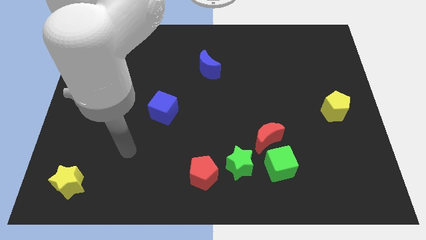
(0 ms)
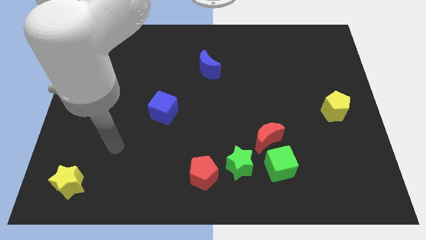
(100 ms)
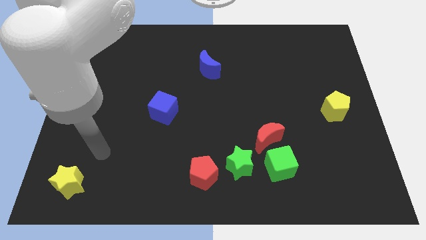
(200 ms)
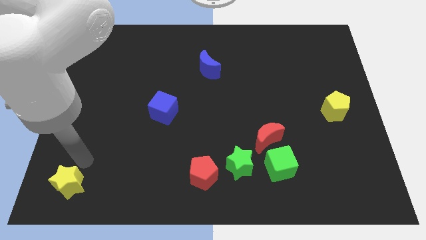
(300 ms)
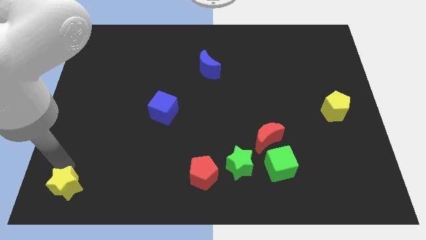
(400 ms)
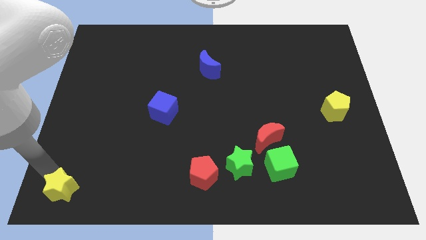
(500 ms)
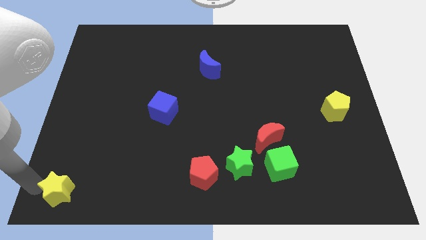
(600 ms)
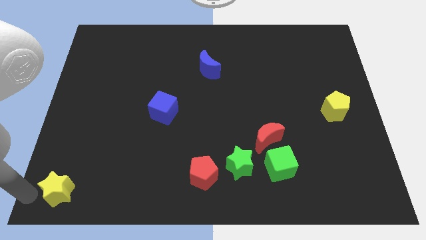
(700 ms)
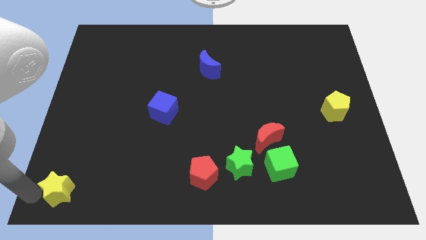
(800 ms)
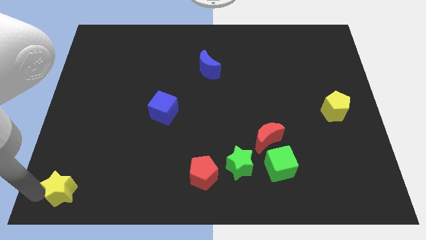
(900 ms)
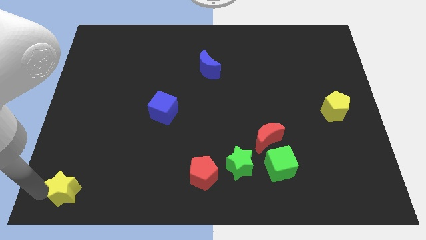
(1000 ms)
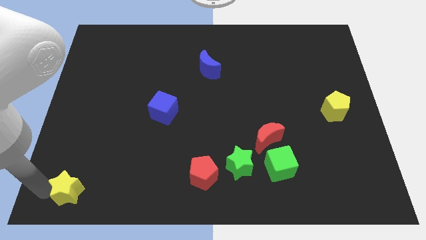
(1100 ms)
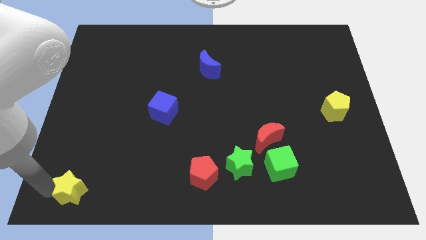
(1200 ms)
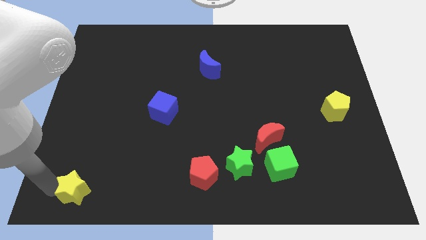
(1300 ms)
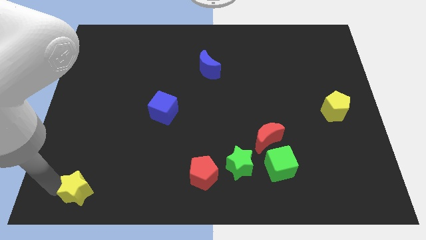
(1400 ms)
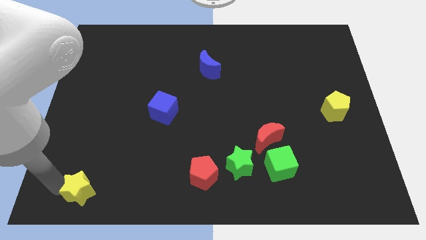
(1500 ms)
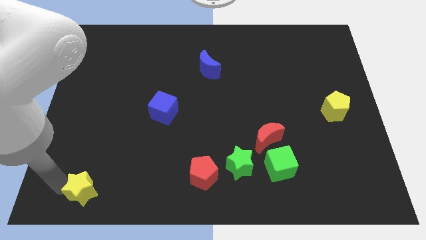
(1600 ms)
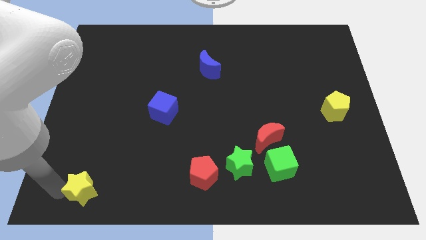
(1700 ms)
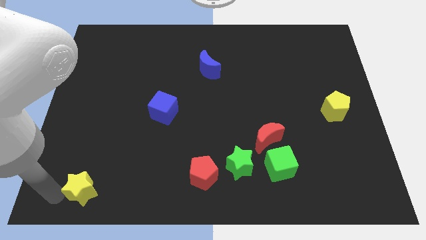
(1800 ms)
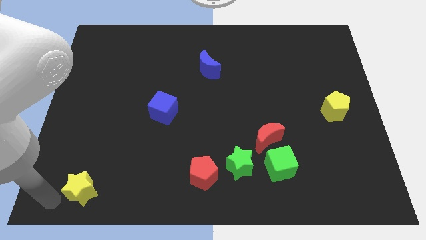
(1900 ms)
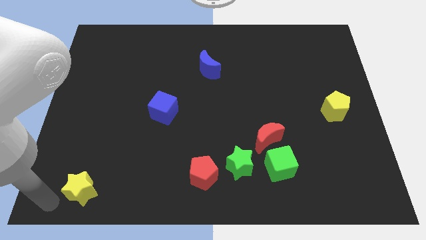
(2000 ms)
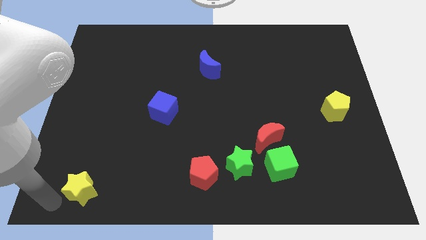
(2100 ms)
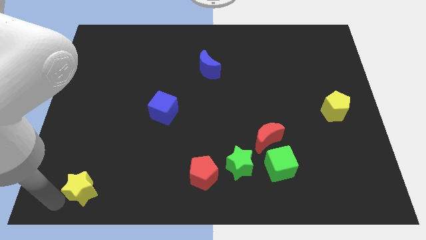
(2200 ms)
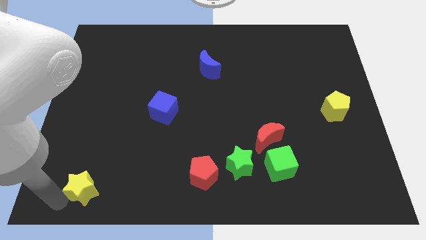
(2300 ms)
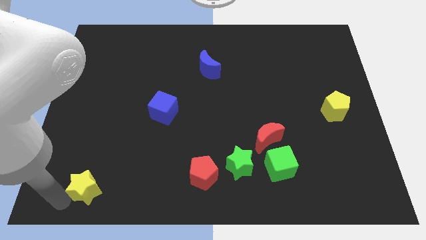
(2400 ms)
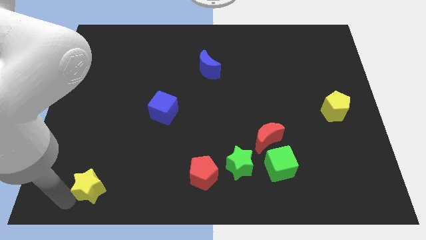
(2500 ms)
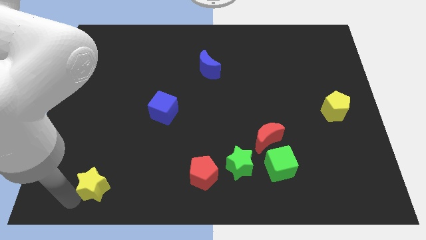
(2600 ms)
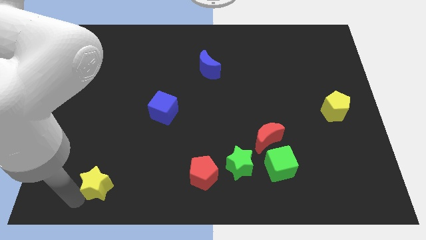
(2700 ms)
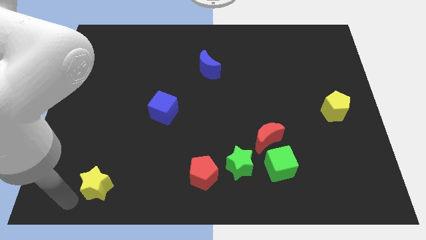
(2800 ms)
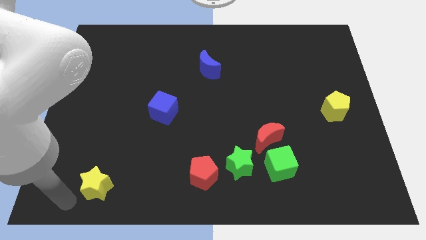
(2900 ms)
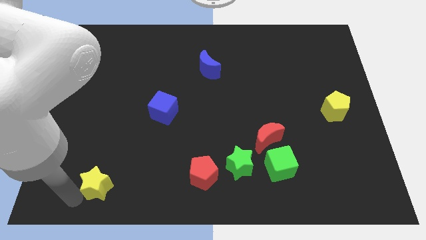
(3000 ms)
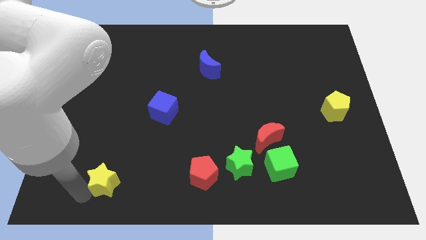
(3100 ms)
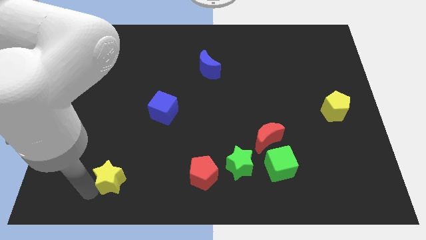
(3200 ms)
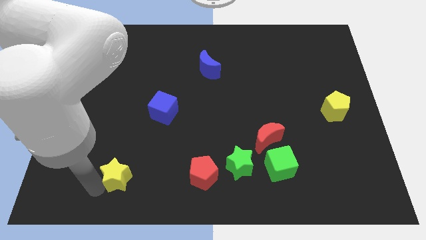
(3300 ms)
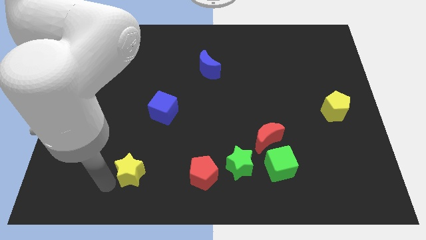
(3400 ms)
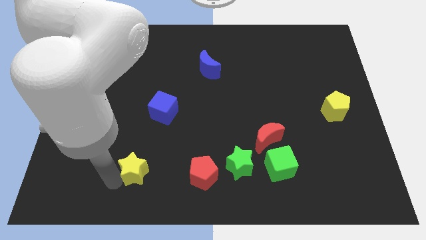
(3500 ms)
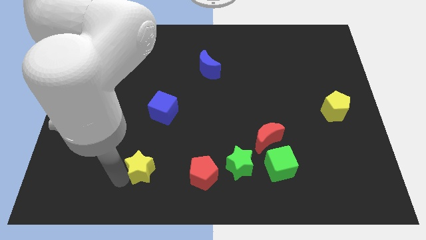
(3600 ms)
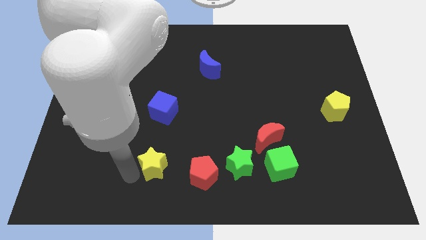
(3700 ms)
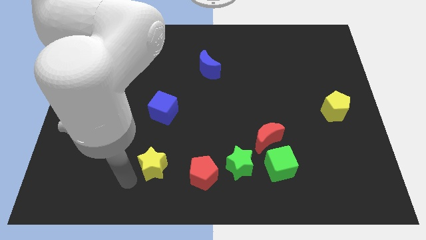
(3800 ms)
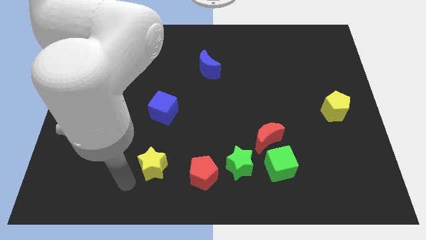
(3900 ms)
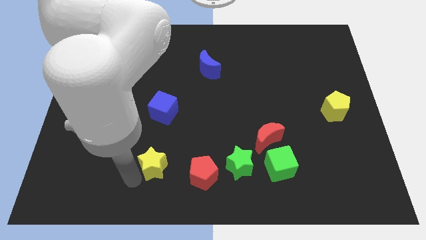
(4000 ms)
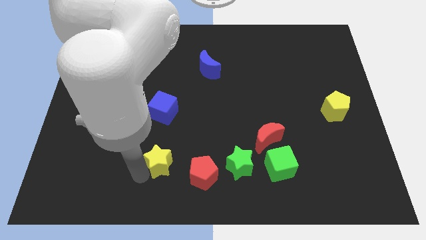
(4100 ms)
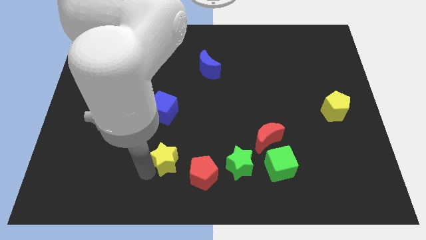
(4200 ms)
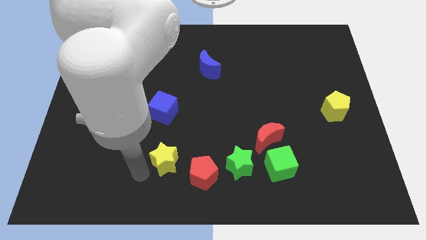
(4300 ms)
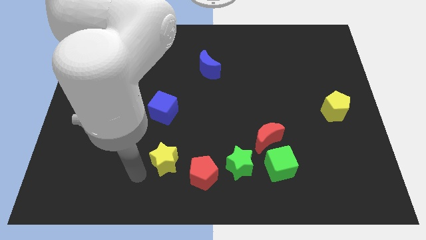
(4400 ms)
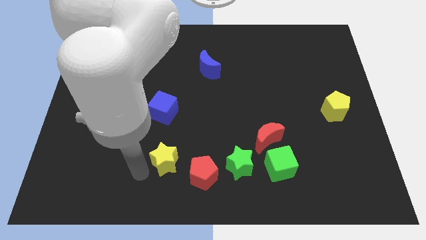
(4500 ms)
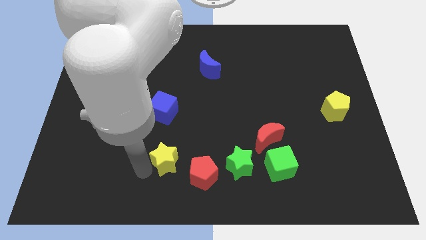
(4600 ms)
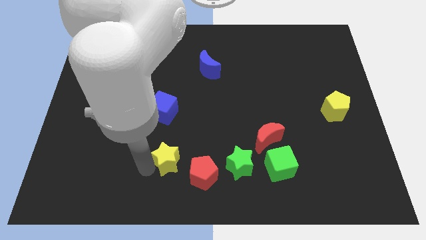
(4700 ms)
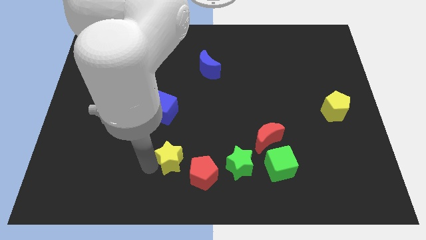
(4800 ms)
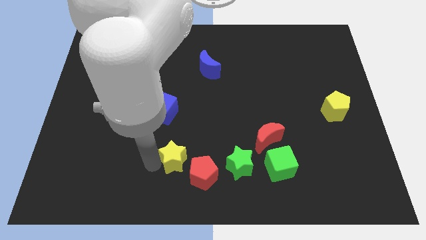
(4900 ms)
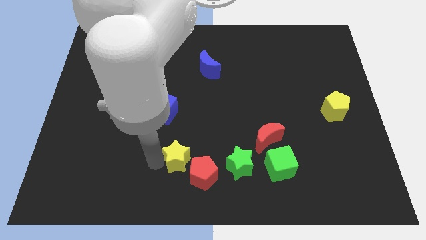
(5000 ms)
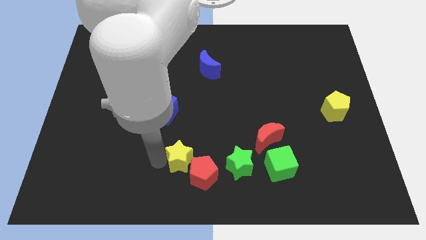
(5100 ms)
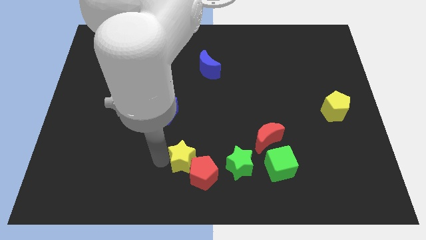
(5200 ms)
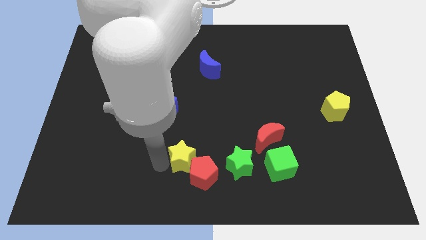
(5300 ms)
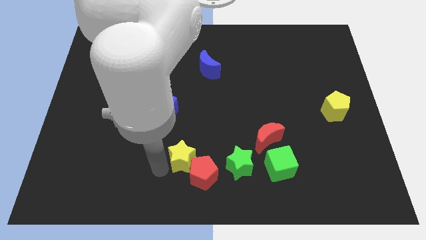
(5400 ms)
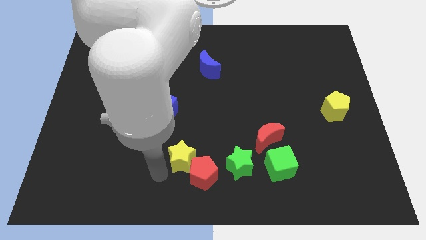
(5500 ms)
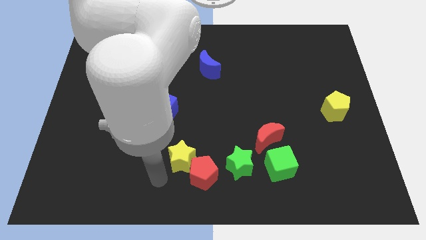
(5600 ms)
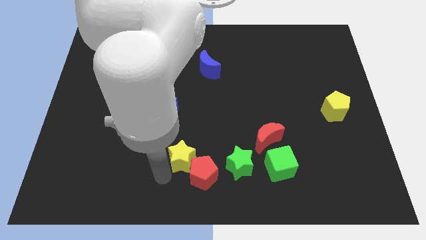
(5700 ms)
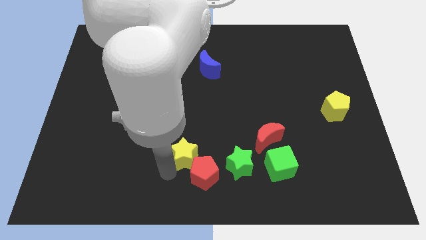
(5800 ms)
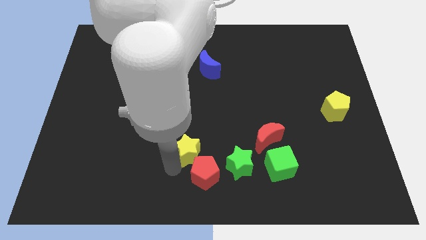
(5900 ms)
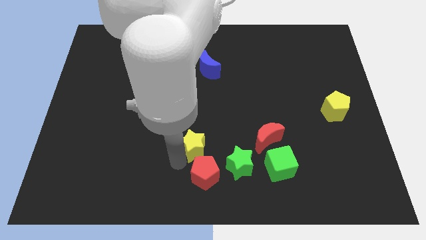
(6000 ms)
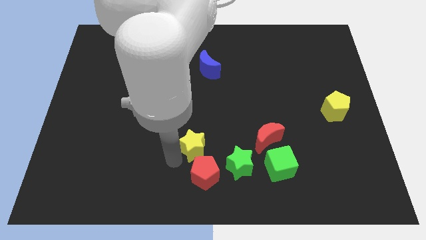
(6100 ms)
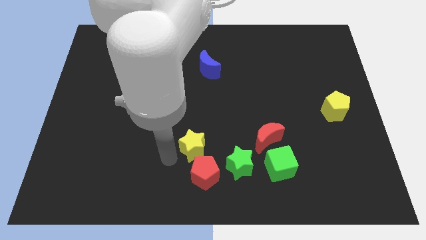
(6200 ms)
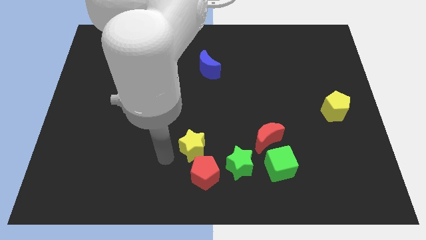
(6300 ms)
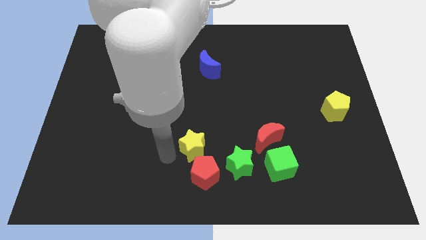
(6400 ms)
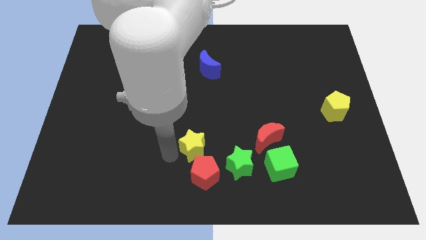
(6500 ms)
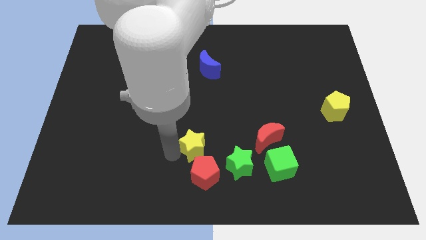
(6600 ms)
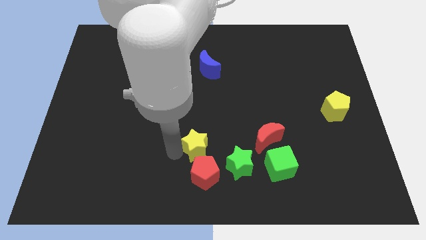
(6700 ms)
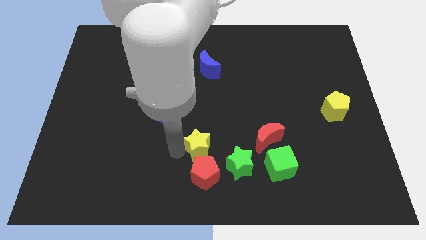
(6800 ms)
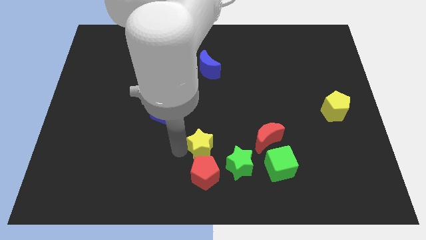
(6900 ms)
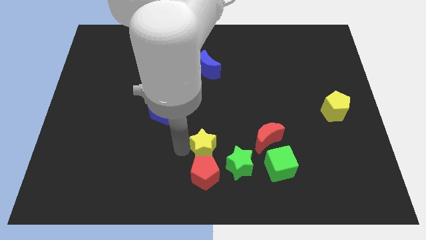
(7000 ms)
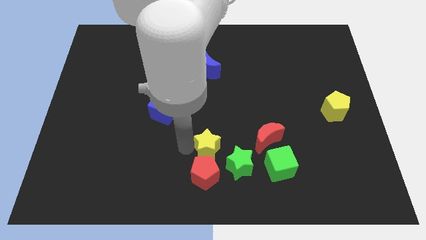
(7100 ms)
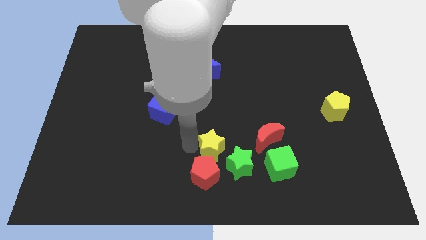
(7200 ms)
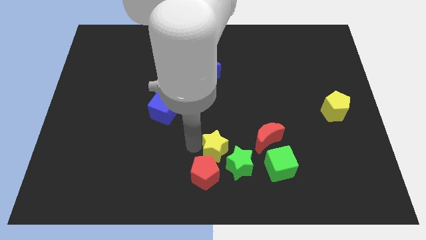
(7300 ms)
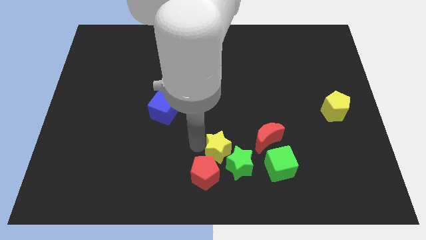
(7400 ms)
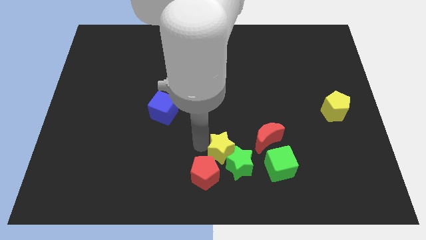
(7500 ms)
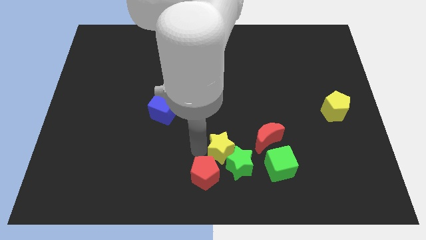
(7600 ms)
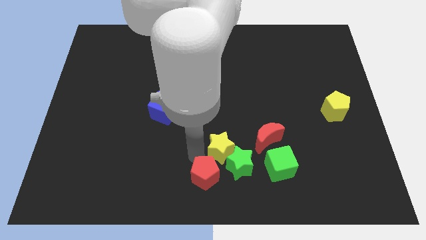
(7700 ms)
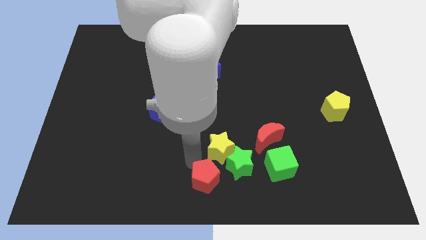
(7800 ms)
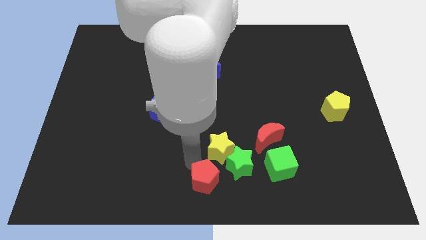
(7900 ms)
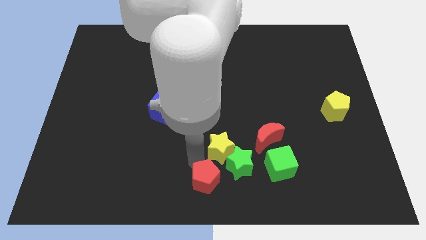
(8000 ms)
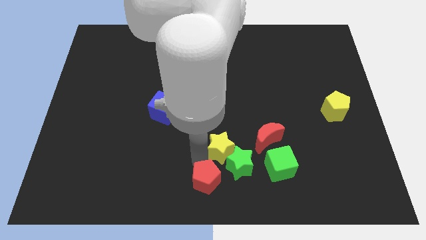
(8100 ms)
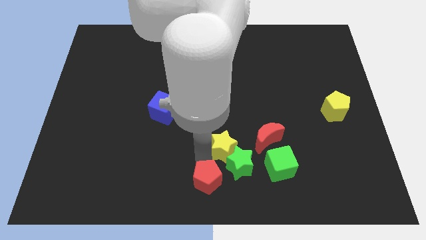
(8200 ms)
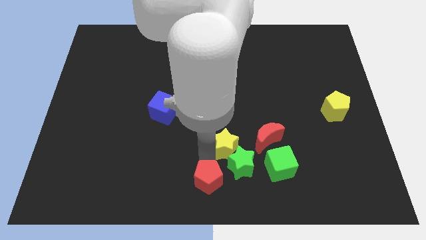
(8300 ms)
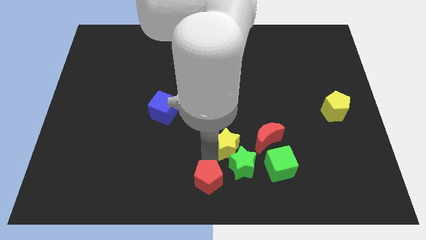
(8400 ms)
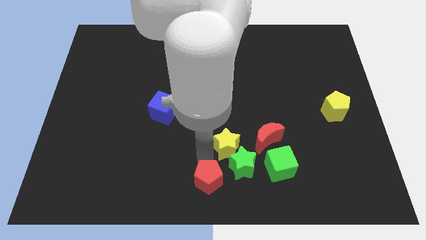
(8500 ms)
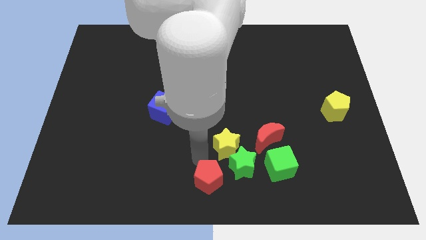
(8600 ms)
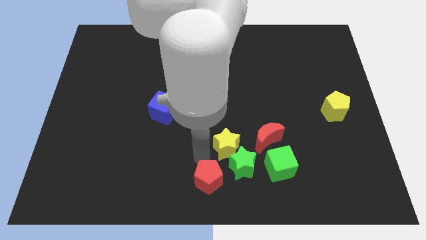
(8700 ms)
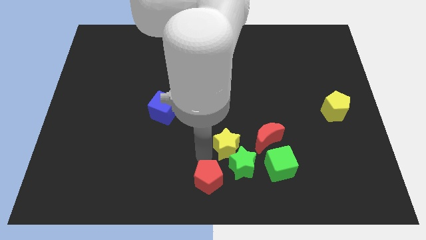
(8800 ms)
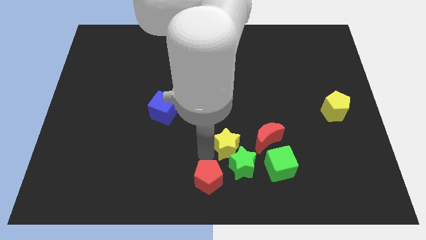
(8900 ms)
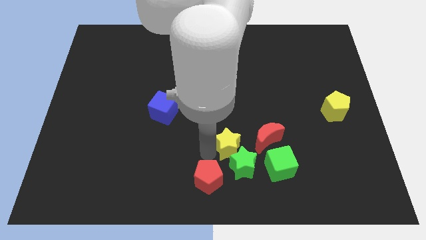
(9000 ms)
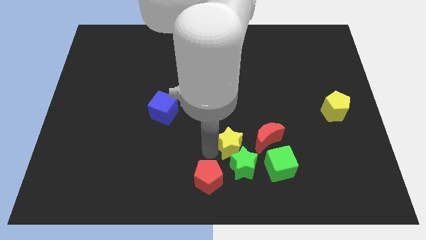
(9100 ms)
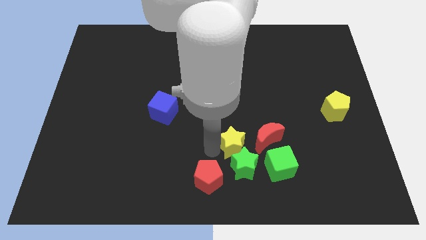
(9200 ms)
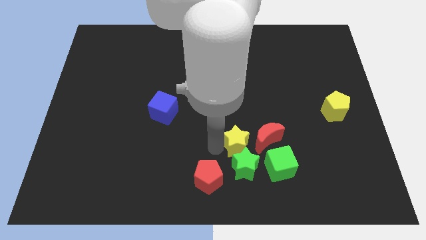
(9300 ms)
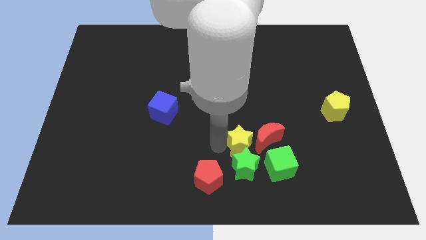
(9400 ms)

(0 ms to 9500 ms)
slide the yellow star to the red moon
